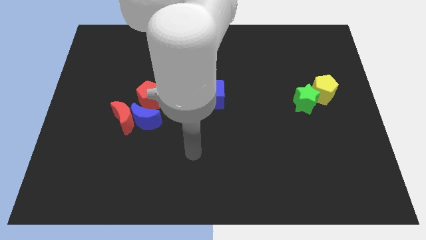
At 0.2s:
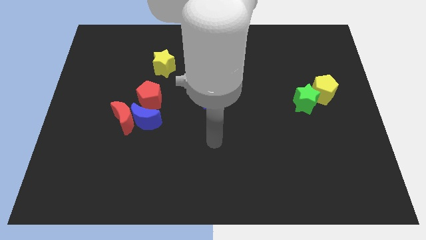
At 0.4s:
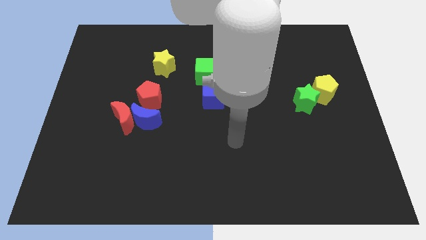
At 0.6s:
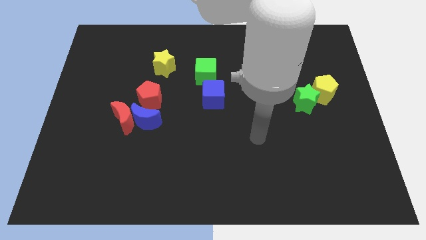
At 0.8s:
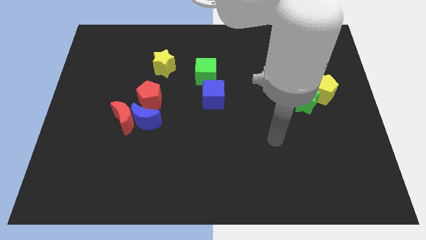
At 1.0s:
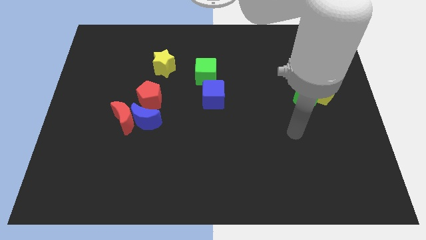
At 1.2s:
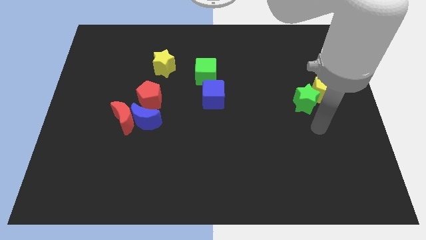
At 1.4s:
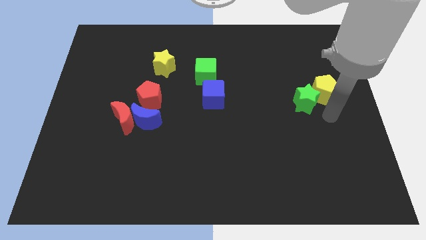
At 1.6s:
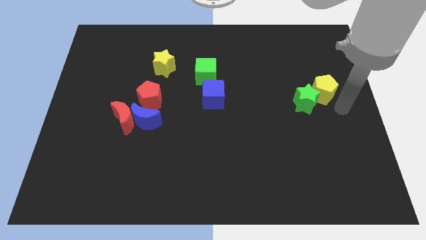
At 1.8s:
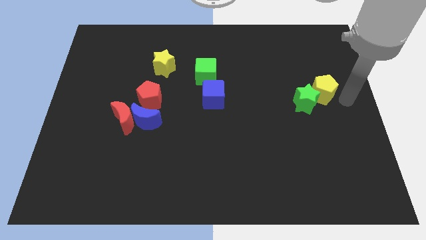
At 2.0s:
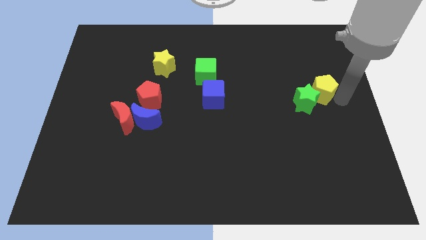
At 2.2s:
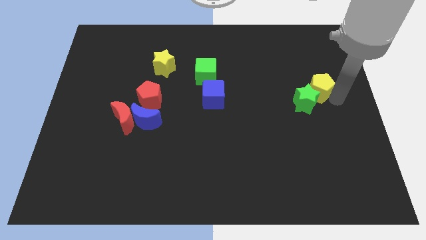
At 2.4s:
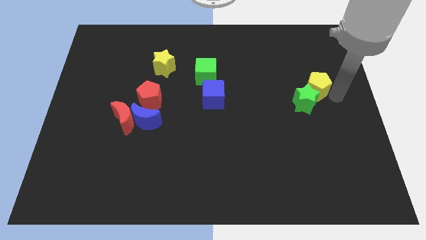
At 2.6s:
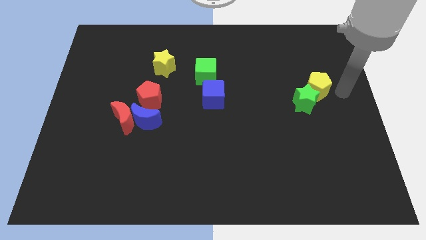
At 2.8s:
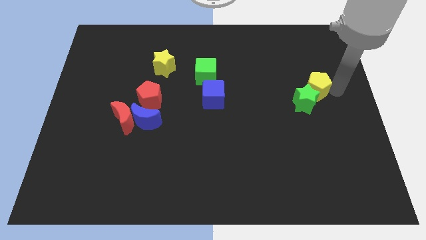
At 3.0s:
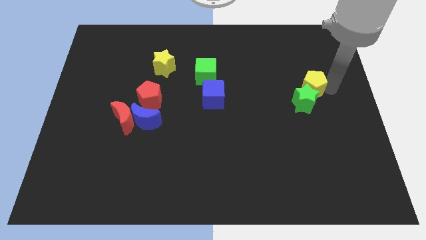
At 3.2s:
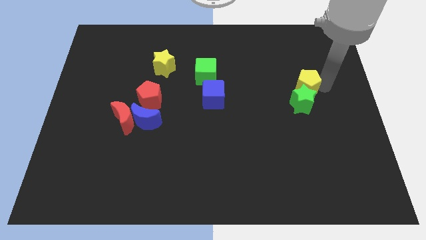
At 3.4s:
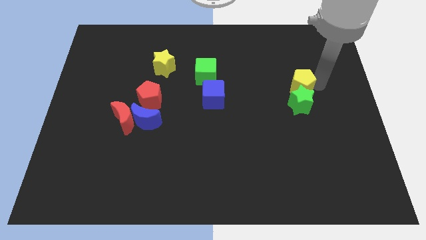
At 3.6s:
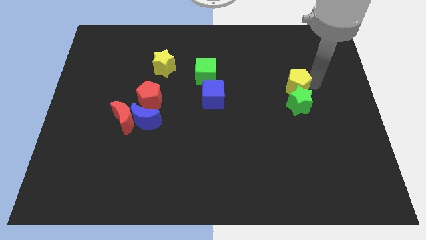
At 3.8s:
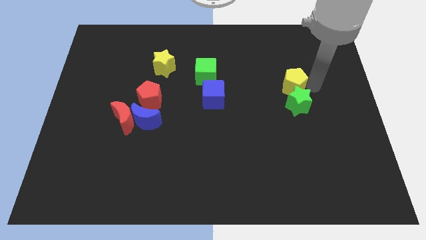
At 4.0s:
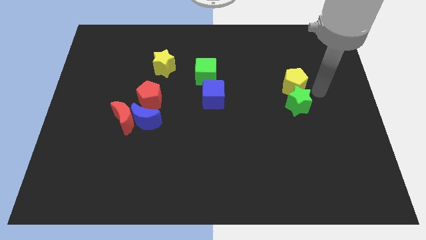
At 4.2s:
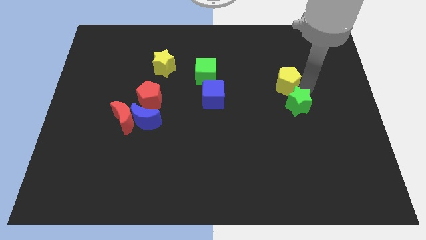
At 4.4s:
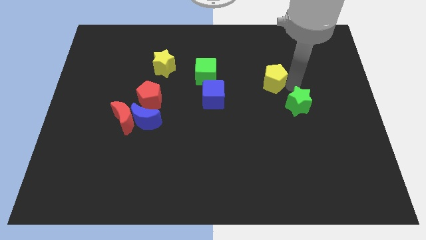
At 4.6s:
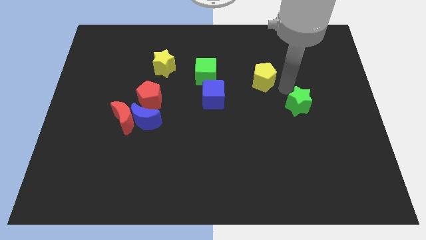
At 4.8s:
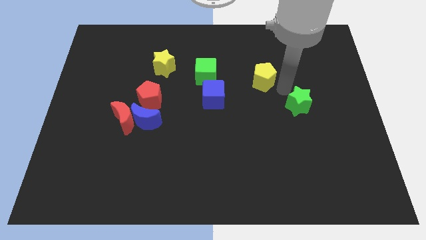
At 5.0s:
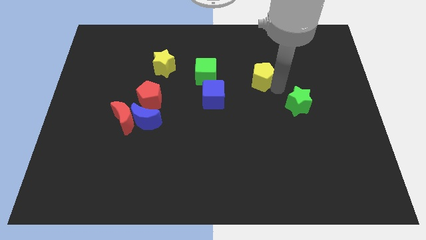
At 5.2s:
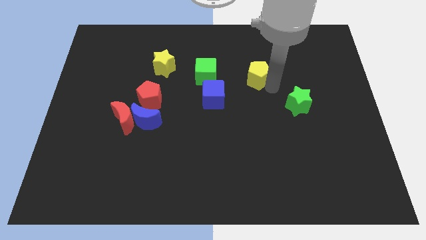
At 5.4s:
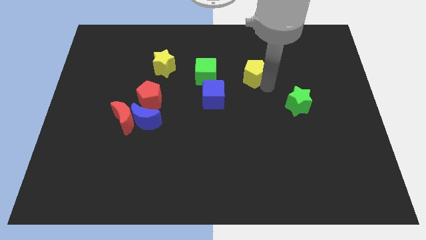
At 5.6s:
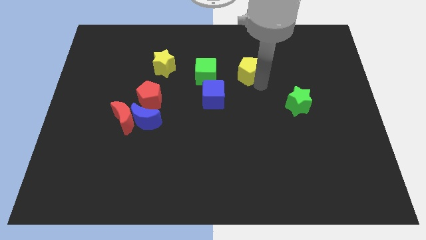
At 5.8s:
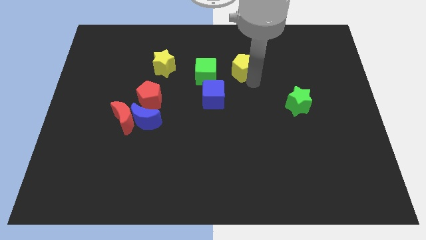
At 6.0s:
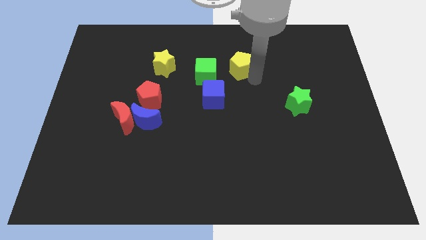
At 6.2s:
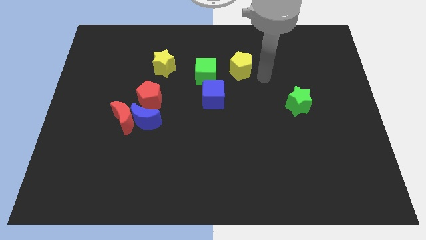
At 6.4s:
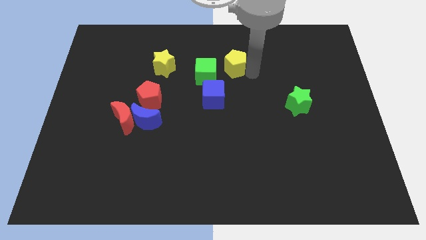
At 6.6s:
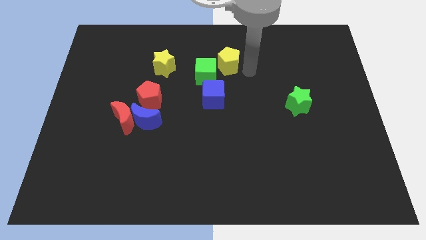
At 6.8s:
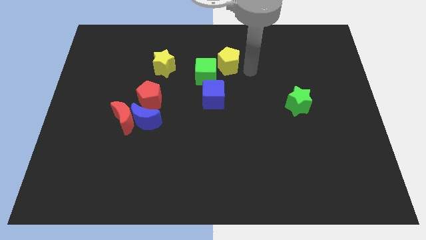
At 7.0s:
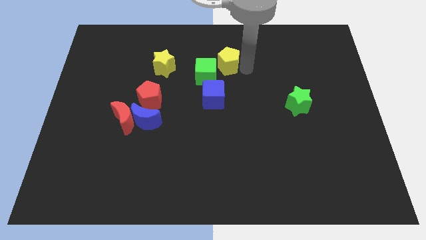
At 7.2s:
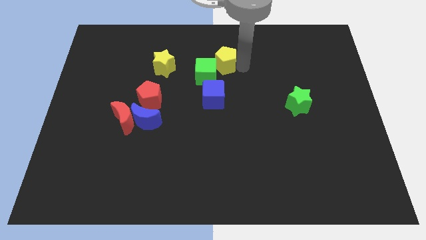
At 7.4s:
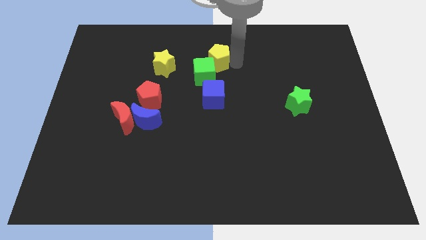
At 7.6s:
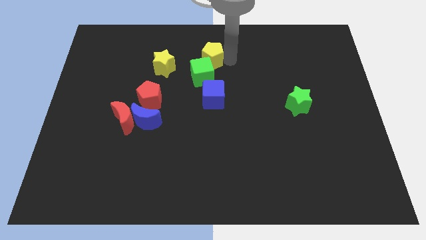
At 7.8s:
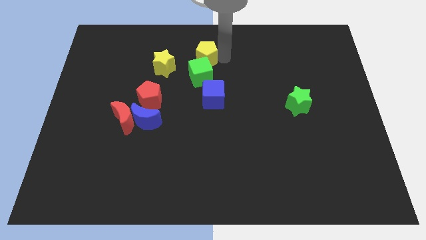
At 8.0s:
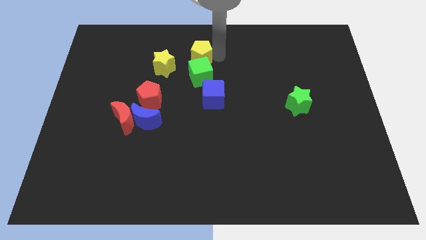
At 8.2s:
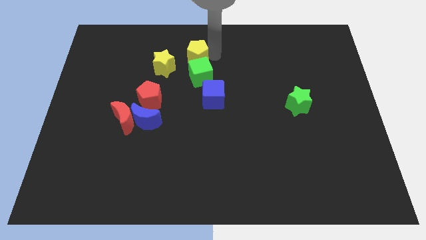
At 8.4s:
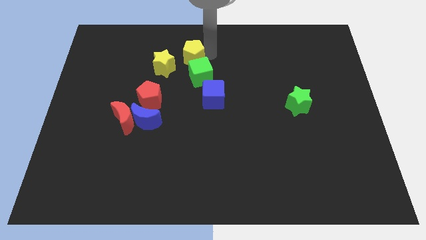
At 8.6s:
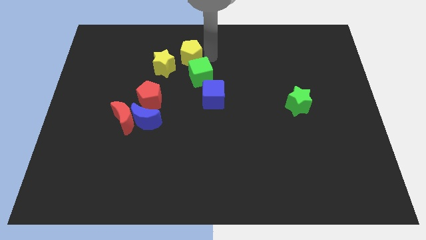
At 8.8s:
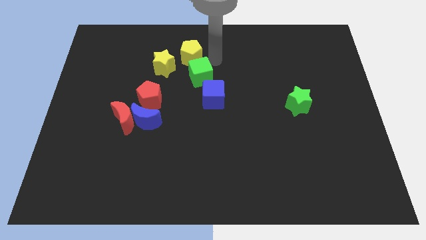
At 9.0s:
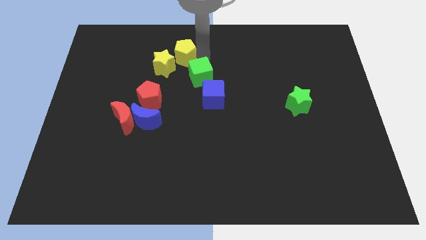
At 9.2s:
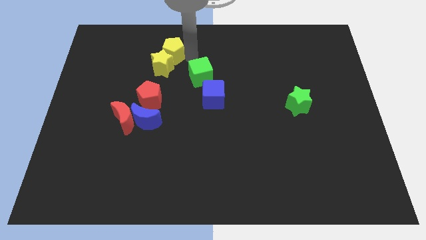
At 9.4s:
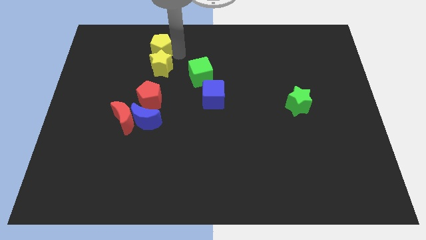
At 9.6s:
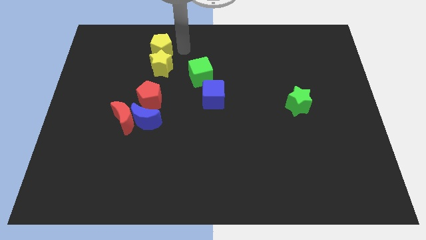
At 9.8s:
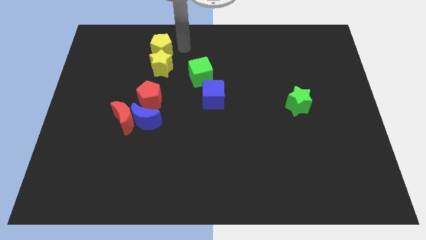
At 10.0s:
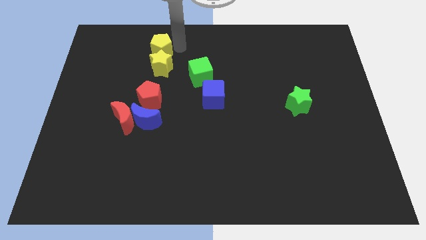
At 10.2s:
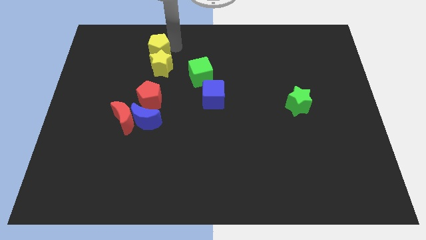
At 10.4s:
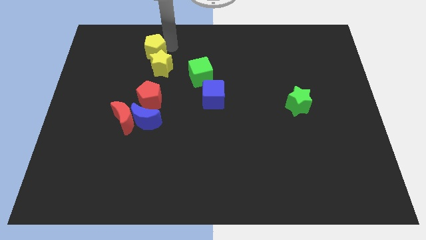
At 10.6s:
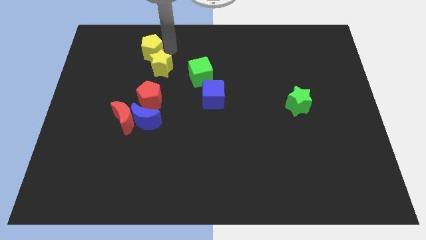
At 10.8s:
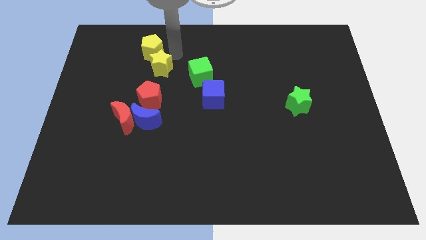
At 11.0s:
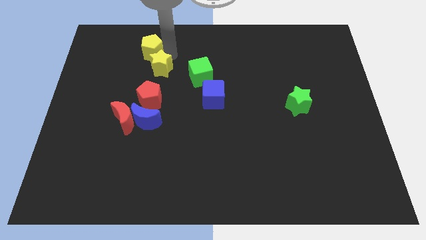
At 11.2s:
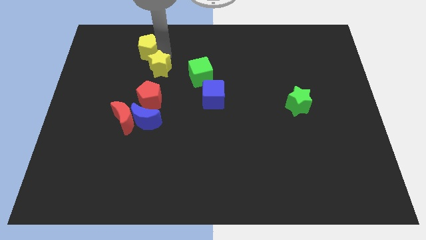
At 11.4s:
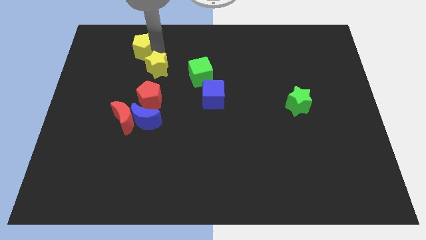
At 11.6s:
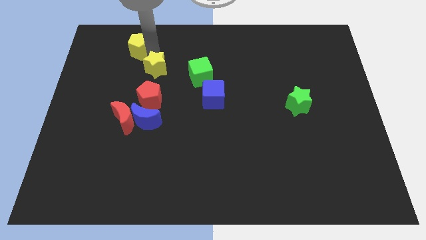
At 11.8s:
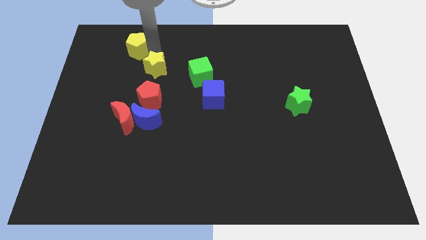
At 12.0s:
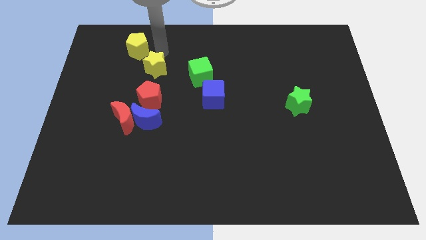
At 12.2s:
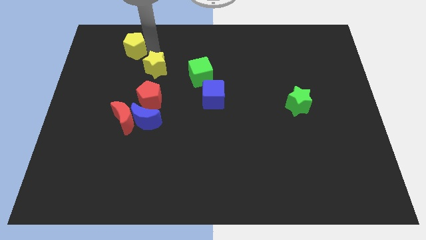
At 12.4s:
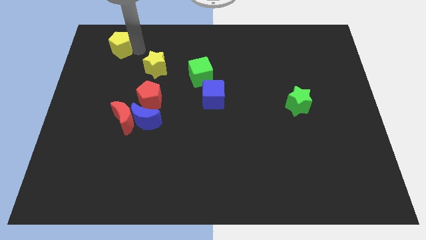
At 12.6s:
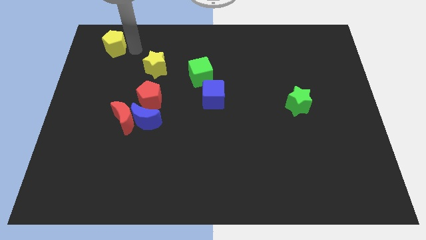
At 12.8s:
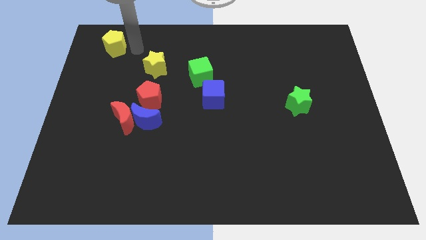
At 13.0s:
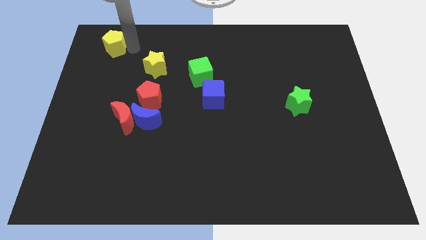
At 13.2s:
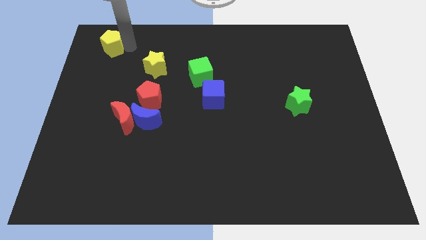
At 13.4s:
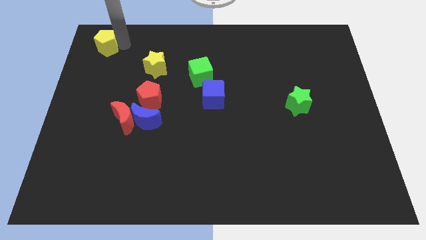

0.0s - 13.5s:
slide the yellow pentagon to the top left
